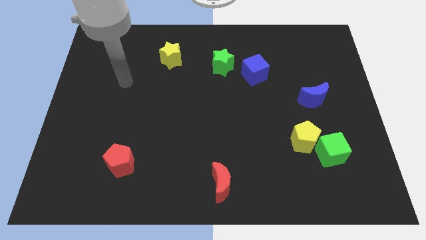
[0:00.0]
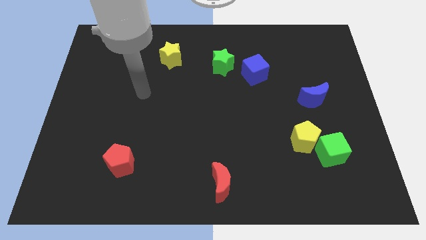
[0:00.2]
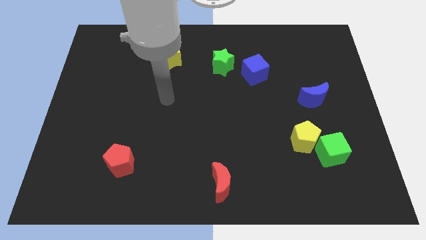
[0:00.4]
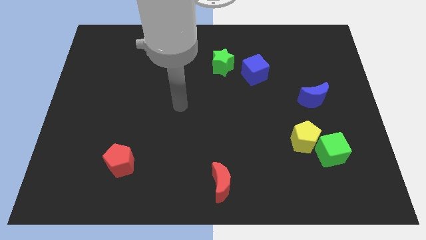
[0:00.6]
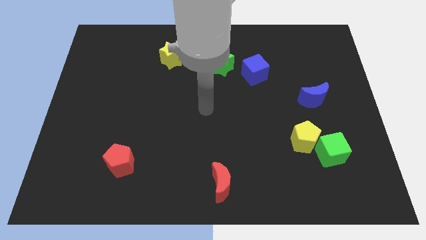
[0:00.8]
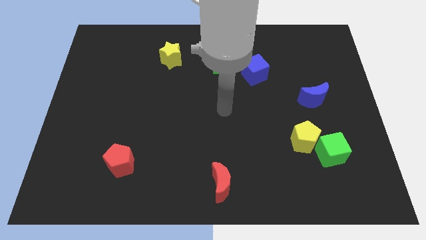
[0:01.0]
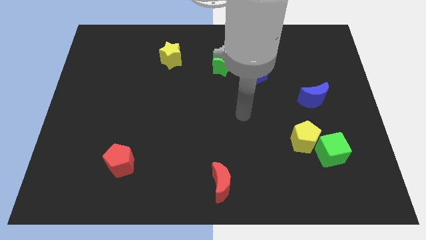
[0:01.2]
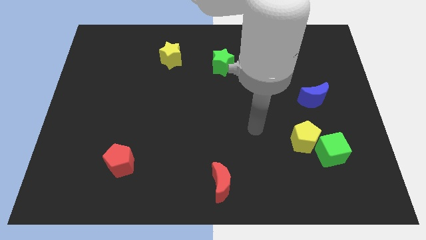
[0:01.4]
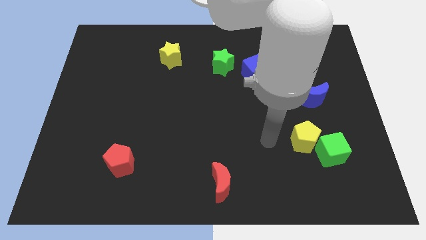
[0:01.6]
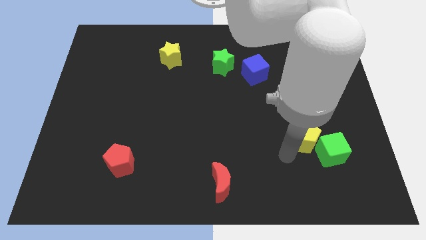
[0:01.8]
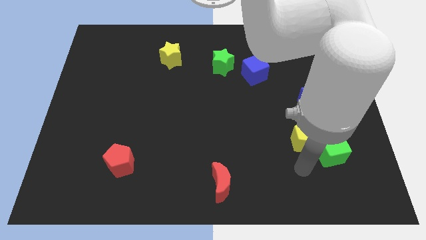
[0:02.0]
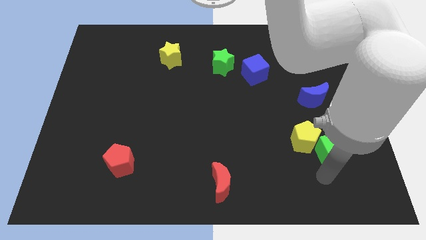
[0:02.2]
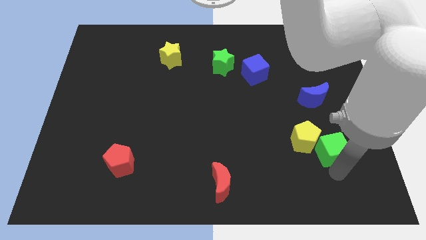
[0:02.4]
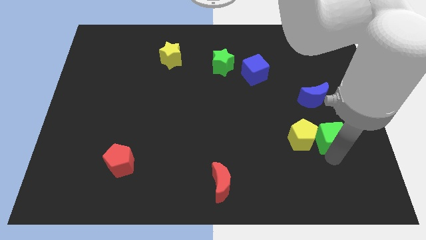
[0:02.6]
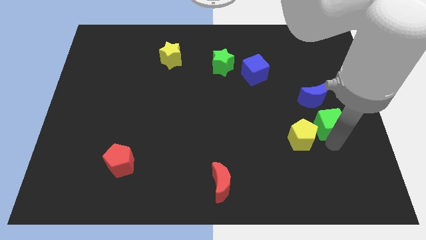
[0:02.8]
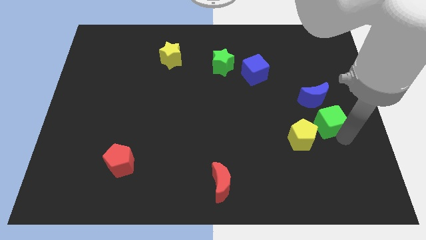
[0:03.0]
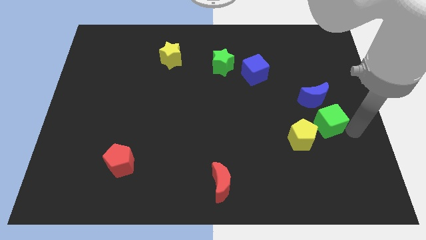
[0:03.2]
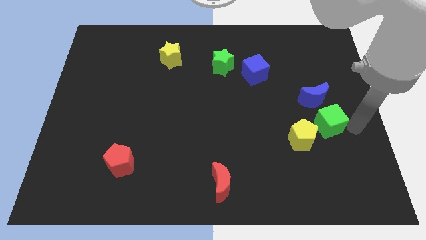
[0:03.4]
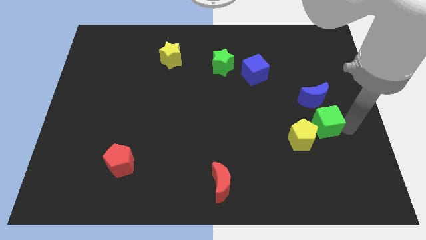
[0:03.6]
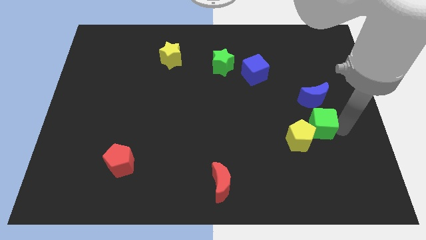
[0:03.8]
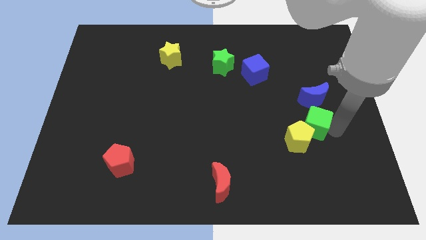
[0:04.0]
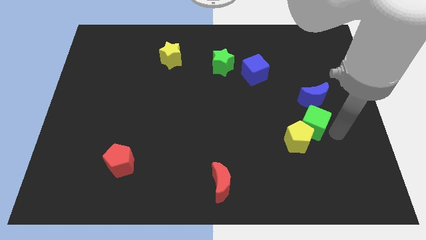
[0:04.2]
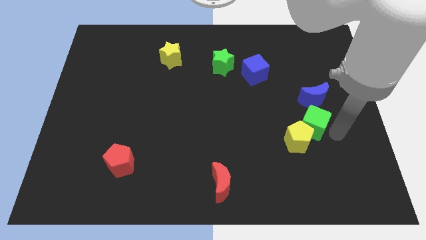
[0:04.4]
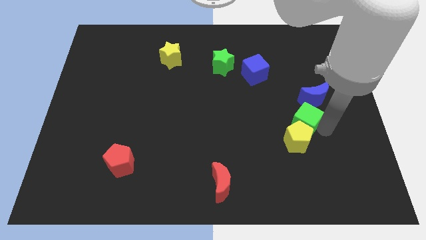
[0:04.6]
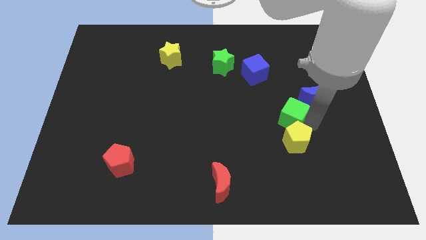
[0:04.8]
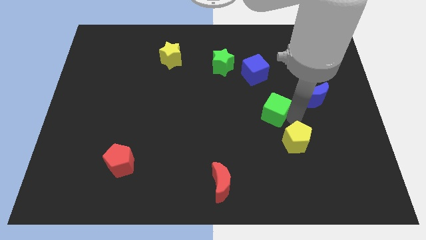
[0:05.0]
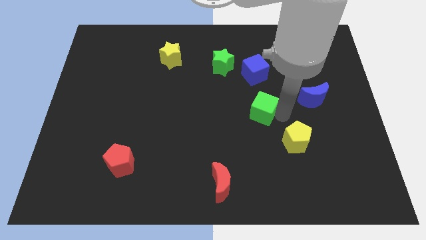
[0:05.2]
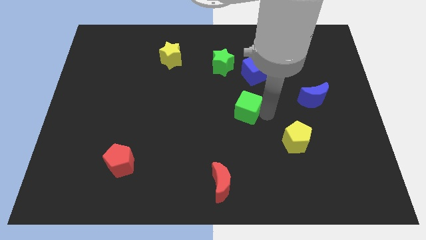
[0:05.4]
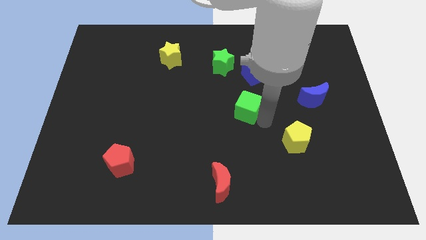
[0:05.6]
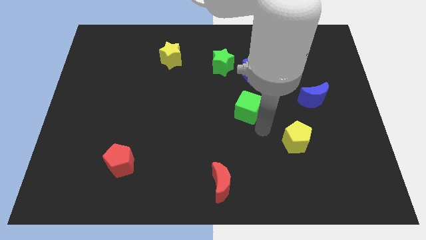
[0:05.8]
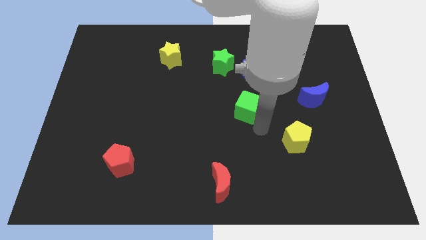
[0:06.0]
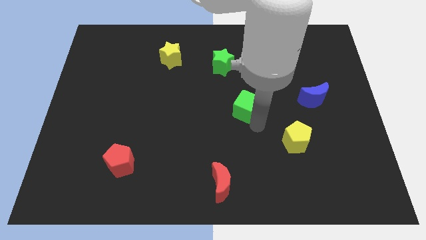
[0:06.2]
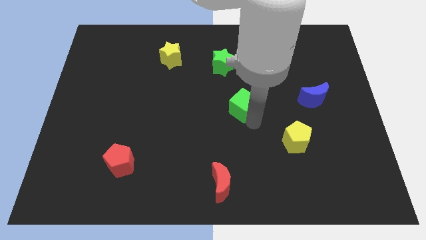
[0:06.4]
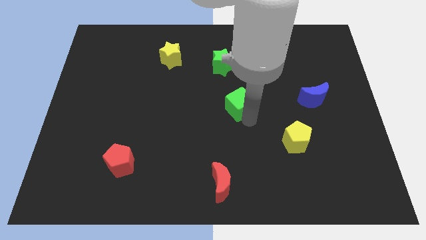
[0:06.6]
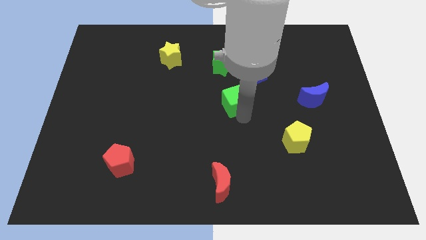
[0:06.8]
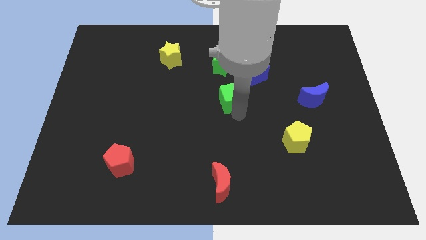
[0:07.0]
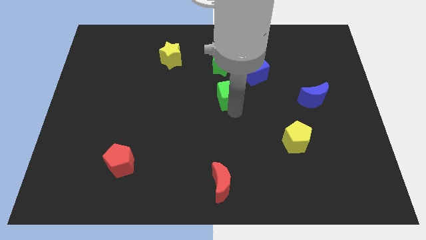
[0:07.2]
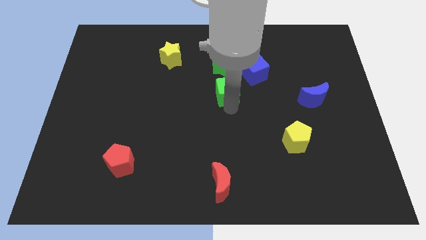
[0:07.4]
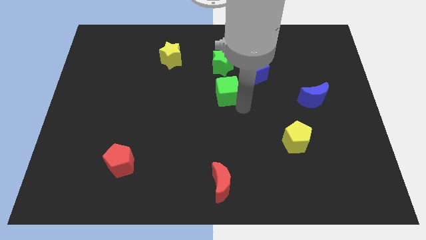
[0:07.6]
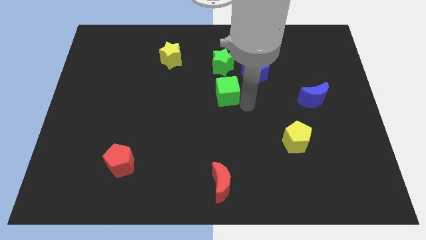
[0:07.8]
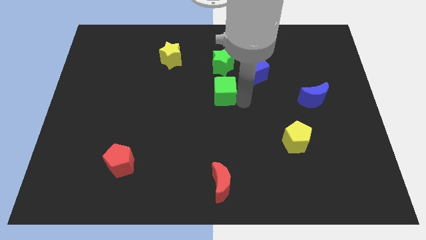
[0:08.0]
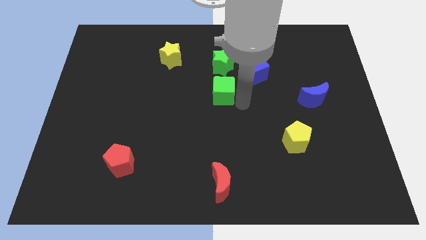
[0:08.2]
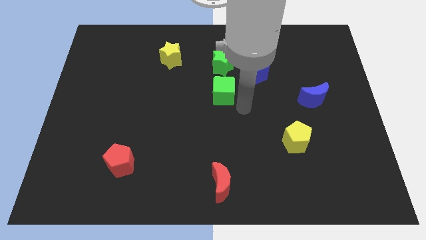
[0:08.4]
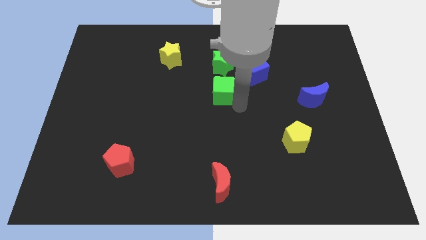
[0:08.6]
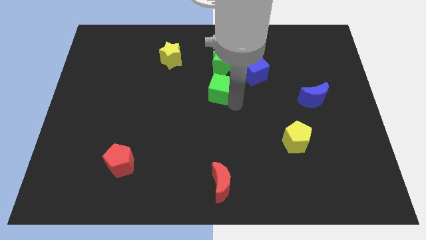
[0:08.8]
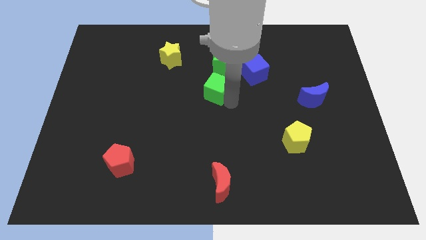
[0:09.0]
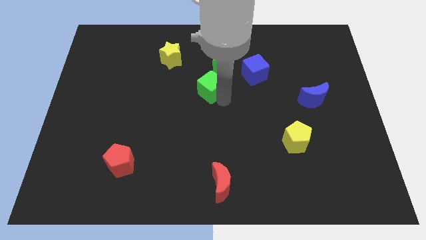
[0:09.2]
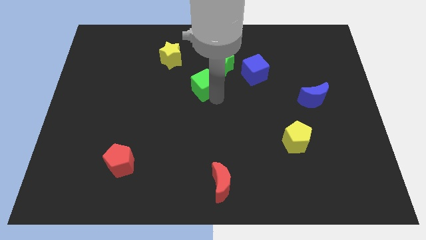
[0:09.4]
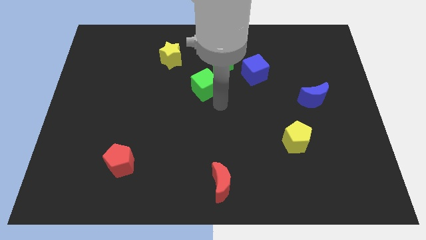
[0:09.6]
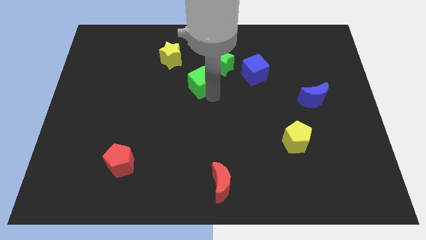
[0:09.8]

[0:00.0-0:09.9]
push the green cube to the bottom right side of the yellow star

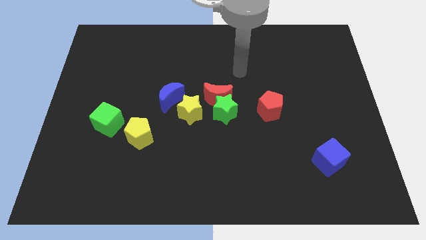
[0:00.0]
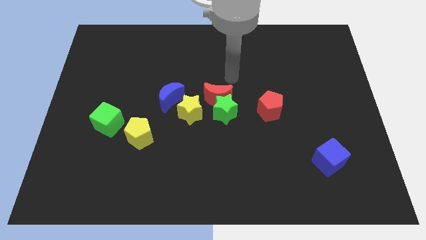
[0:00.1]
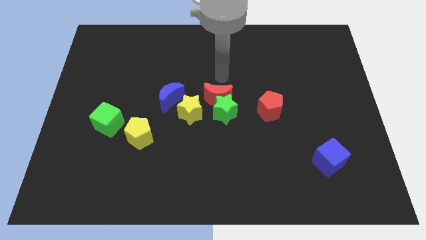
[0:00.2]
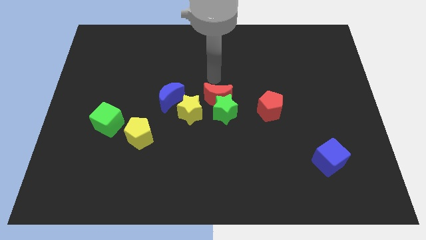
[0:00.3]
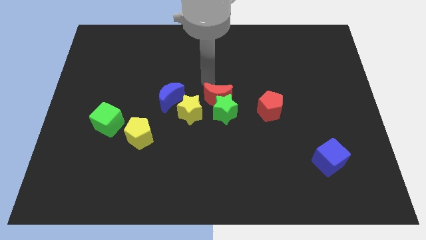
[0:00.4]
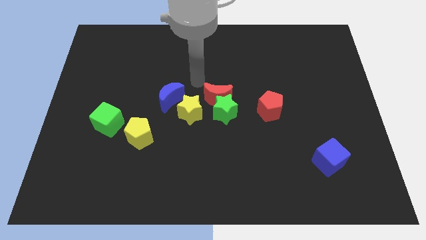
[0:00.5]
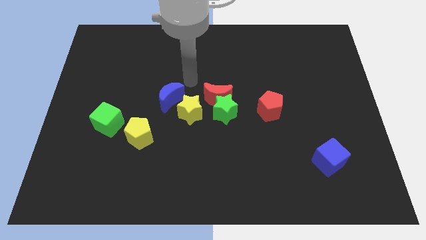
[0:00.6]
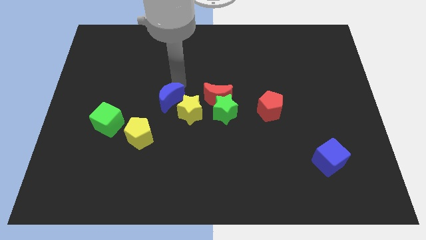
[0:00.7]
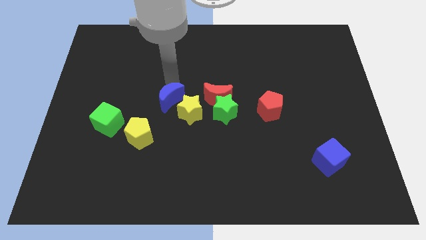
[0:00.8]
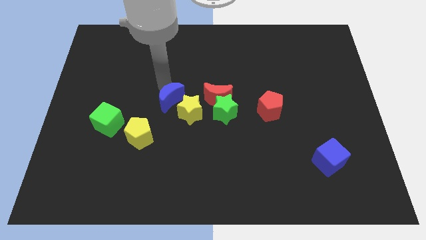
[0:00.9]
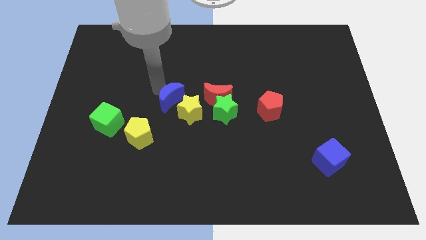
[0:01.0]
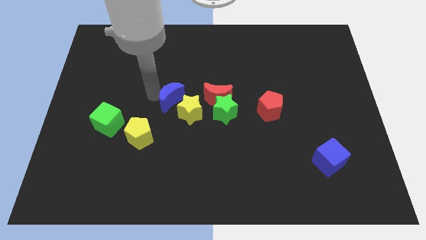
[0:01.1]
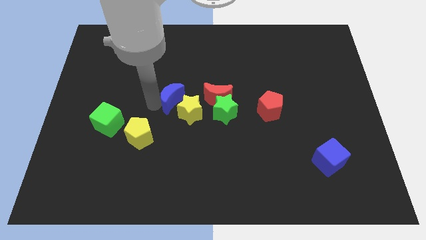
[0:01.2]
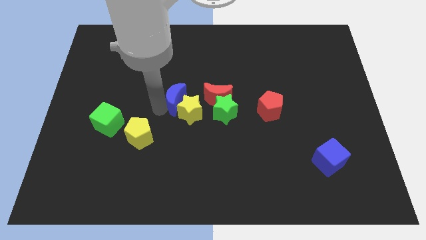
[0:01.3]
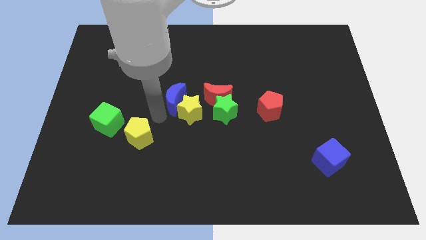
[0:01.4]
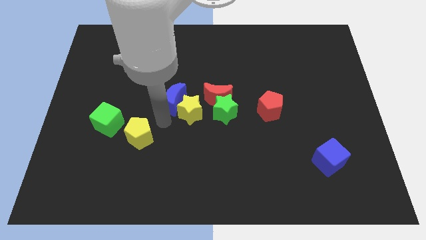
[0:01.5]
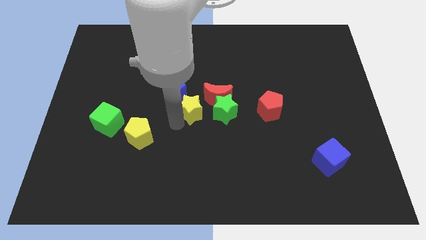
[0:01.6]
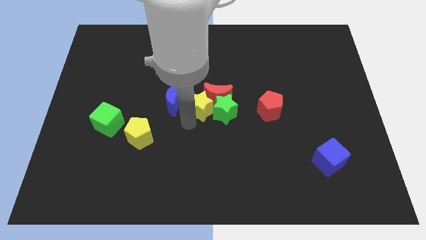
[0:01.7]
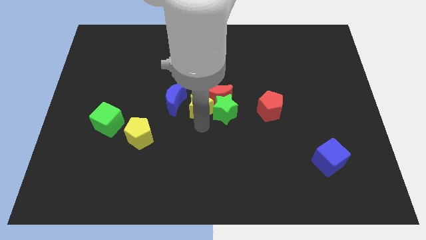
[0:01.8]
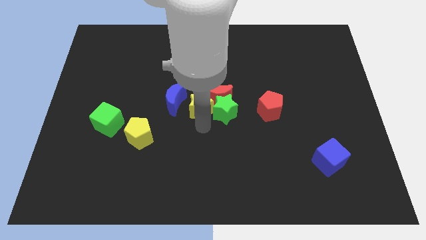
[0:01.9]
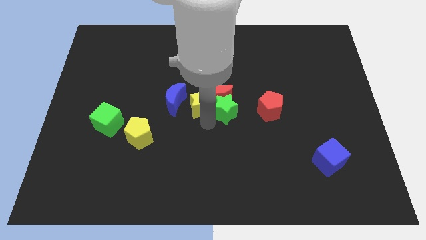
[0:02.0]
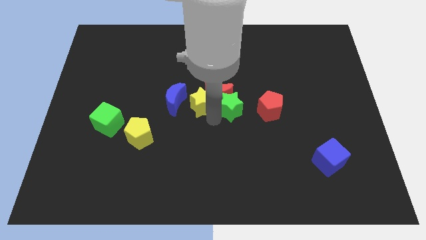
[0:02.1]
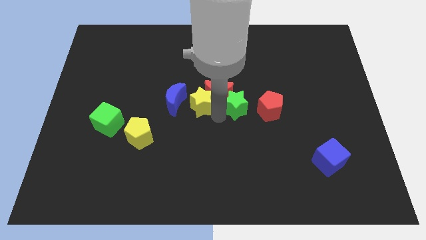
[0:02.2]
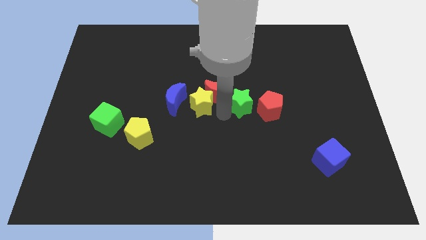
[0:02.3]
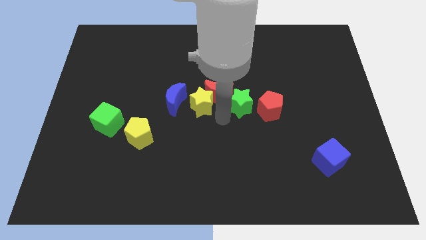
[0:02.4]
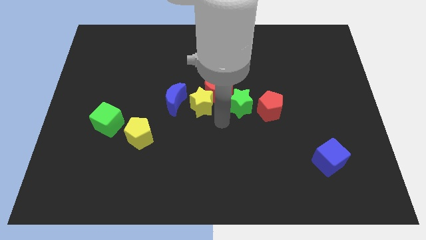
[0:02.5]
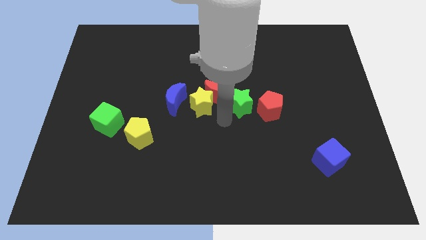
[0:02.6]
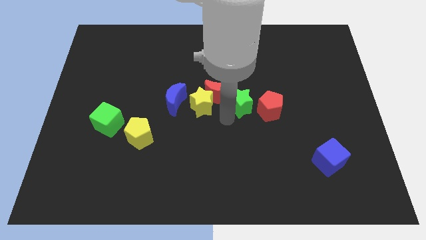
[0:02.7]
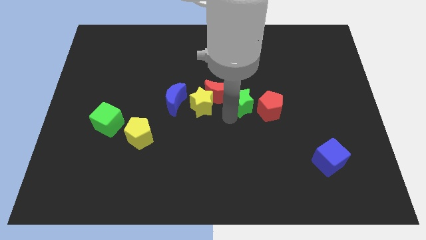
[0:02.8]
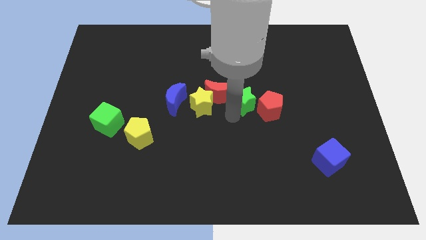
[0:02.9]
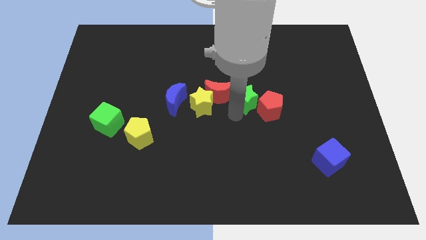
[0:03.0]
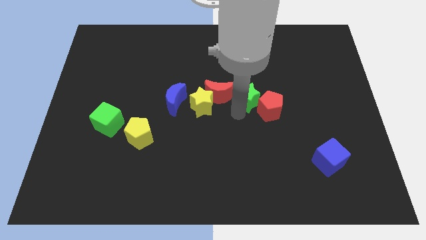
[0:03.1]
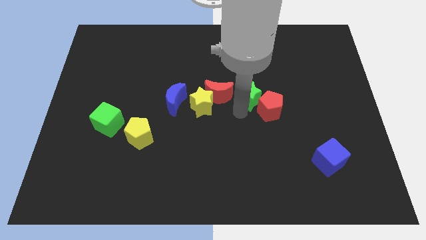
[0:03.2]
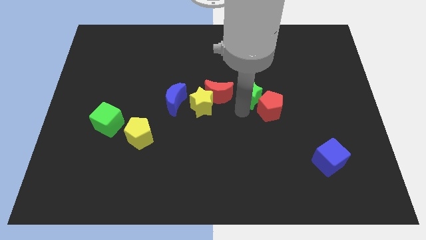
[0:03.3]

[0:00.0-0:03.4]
move the green star to the top of the red pentagon
